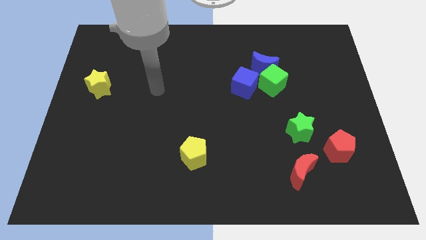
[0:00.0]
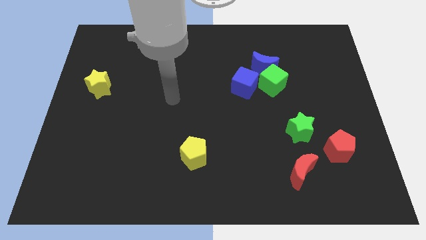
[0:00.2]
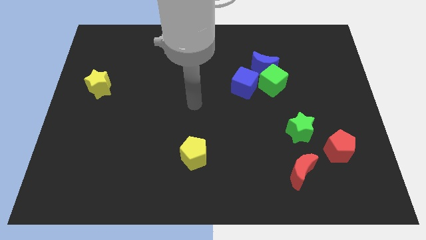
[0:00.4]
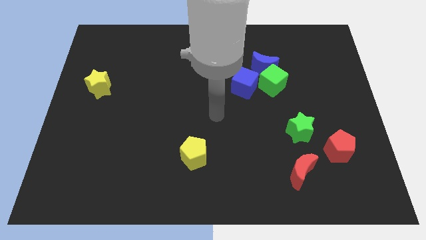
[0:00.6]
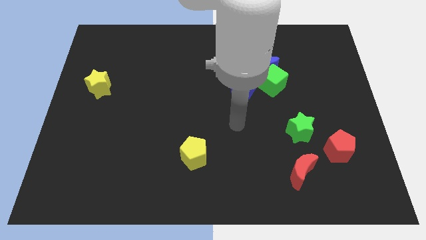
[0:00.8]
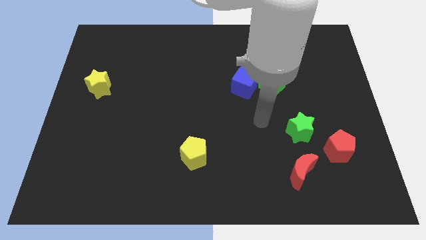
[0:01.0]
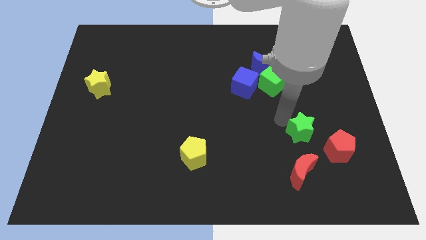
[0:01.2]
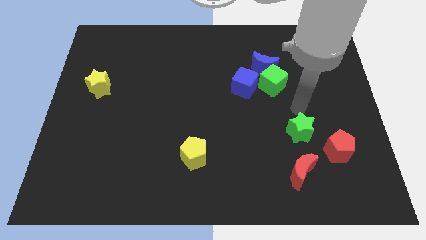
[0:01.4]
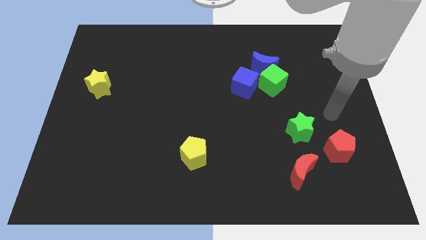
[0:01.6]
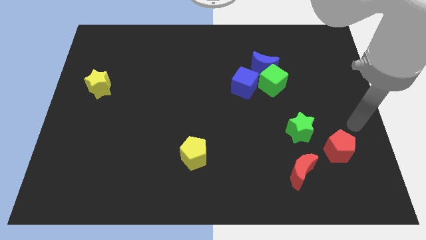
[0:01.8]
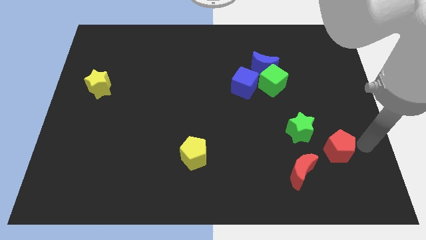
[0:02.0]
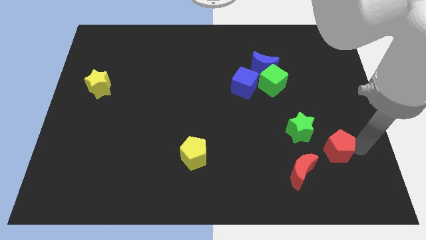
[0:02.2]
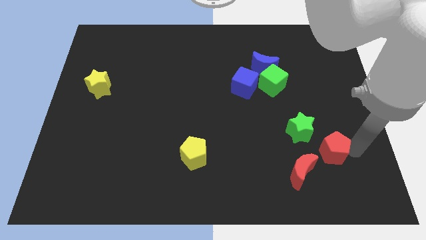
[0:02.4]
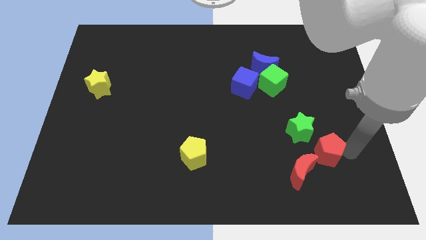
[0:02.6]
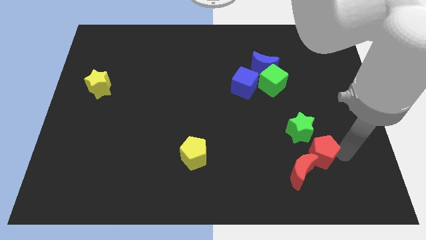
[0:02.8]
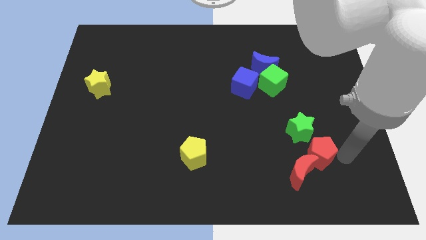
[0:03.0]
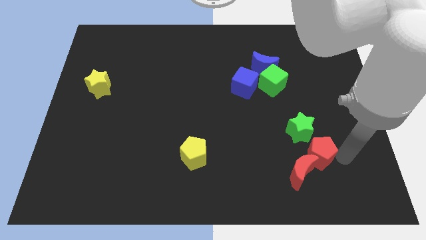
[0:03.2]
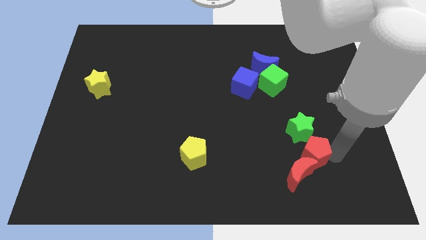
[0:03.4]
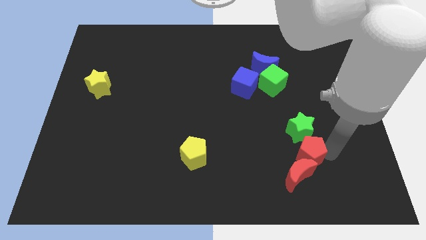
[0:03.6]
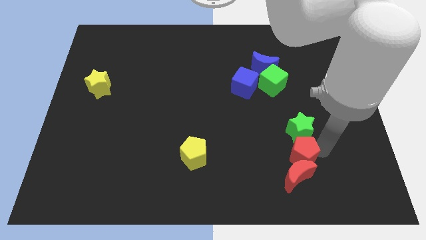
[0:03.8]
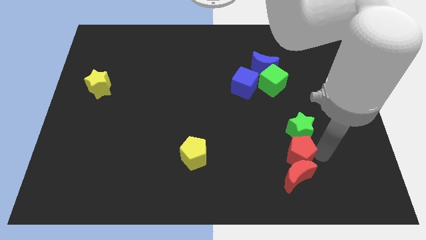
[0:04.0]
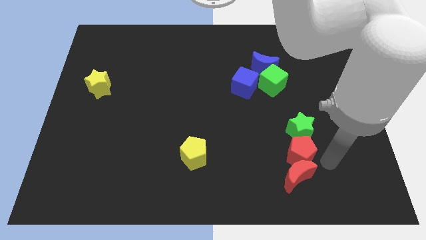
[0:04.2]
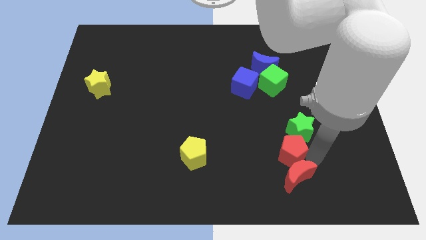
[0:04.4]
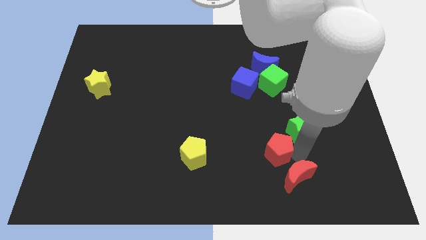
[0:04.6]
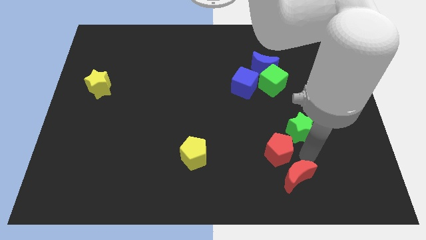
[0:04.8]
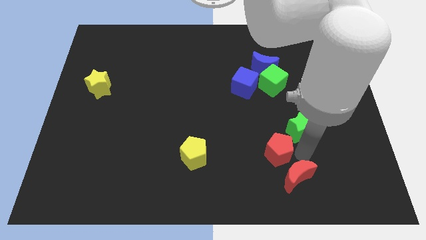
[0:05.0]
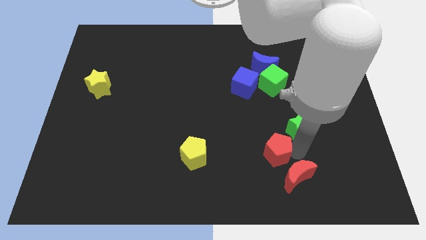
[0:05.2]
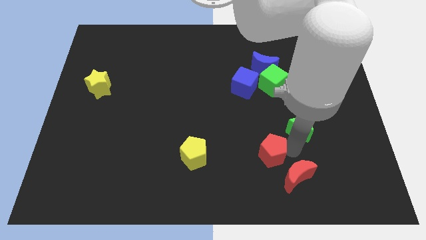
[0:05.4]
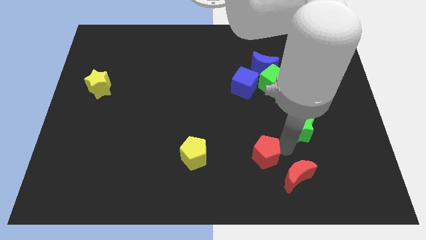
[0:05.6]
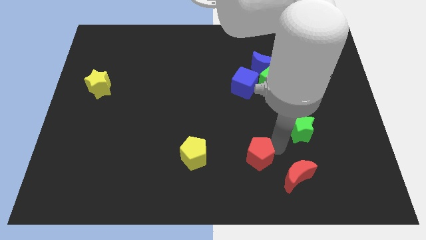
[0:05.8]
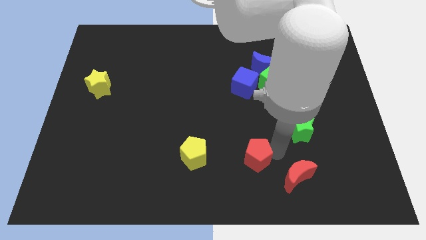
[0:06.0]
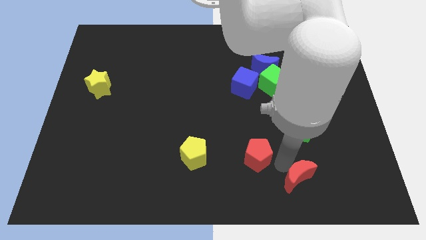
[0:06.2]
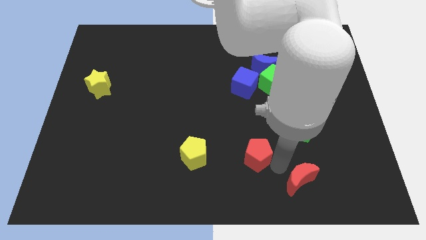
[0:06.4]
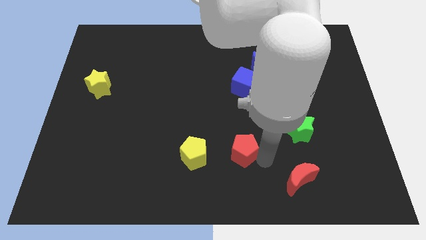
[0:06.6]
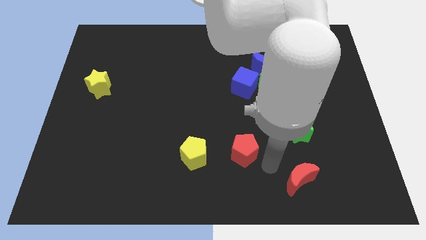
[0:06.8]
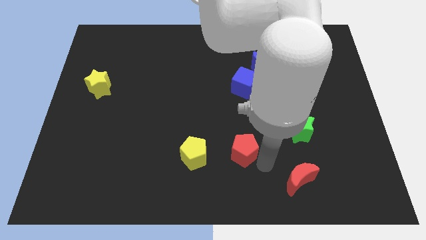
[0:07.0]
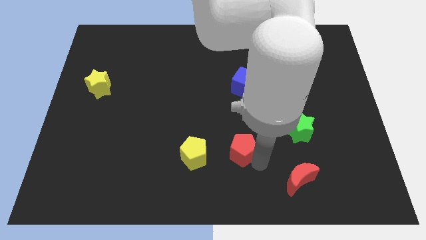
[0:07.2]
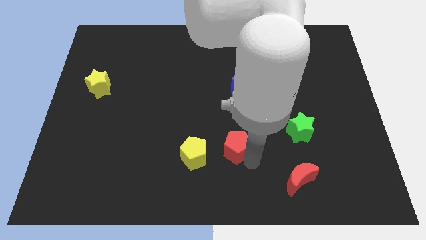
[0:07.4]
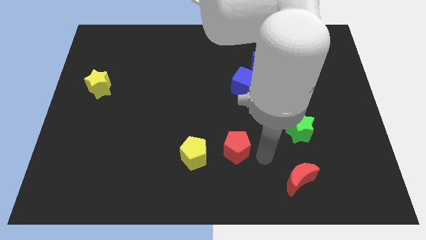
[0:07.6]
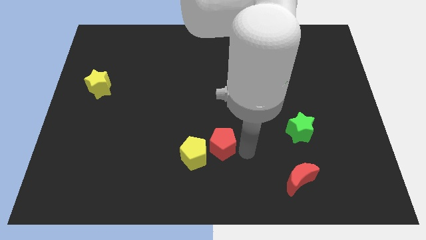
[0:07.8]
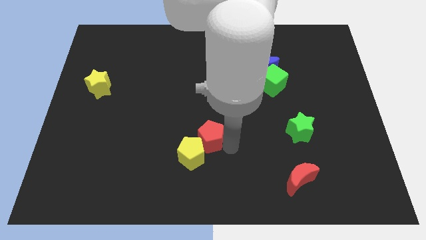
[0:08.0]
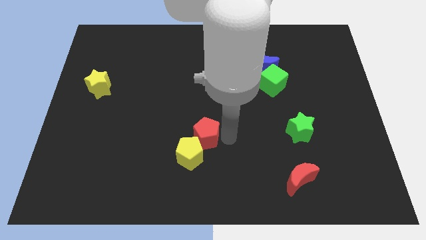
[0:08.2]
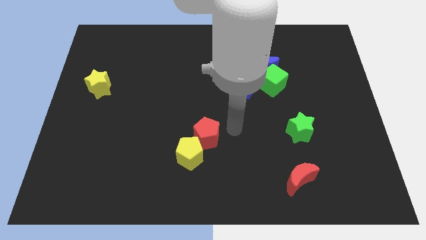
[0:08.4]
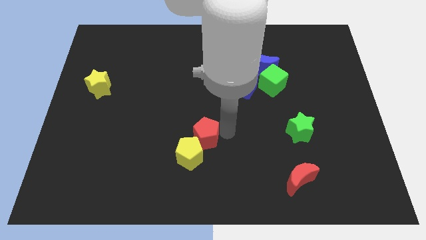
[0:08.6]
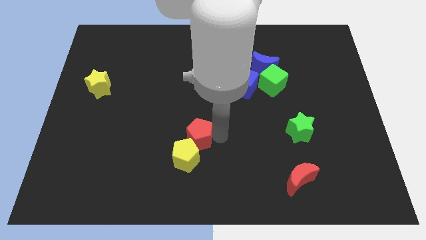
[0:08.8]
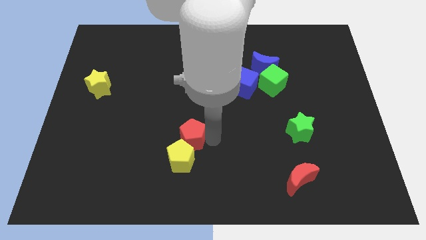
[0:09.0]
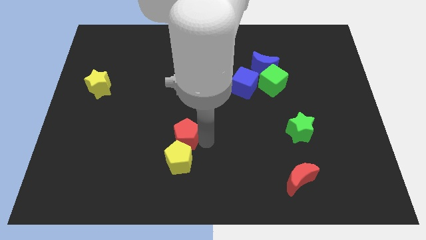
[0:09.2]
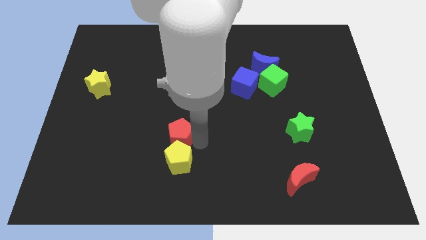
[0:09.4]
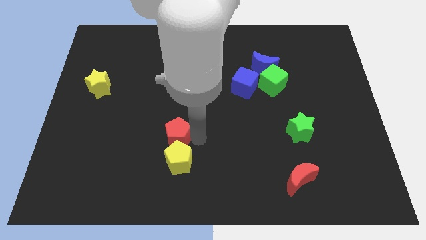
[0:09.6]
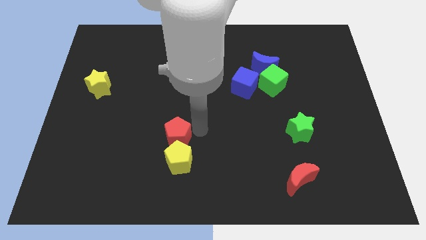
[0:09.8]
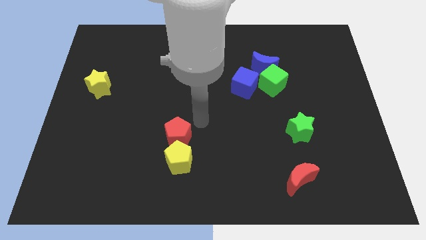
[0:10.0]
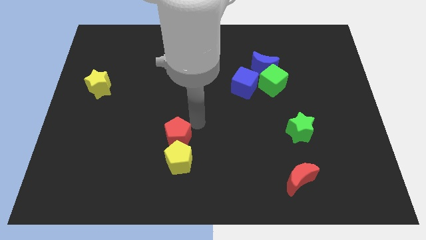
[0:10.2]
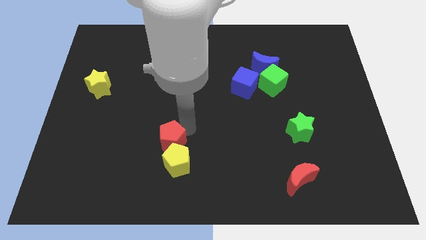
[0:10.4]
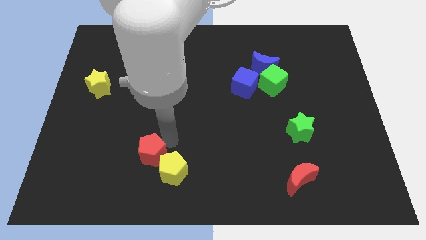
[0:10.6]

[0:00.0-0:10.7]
put the red pentagon to the left side of the yellow pentagon

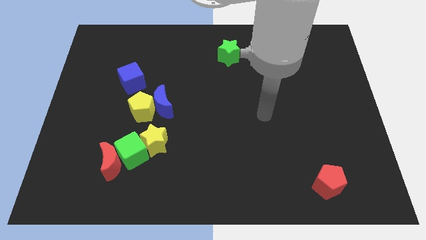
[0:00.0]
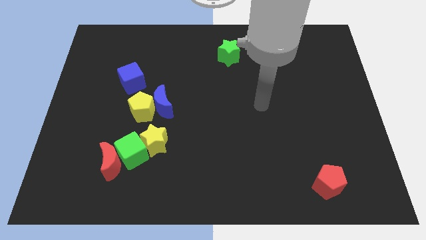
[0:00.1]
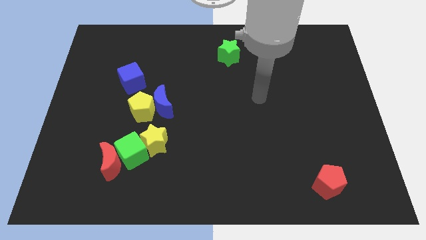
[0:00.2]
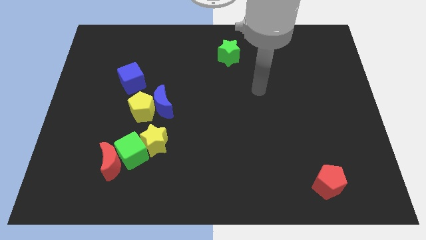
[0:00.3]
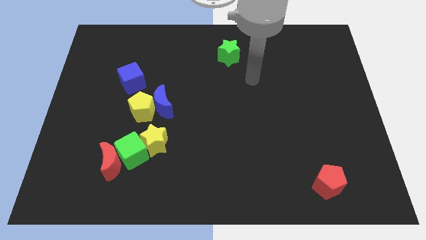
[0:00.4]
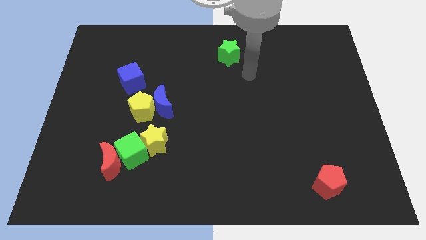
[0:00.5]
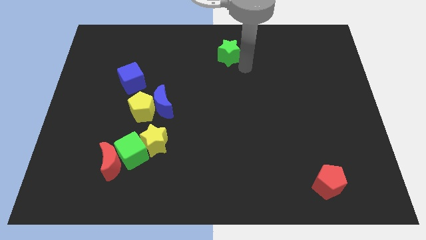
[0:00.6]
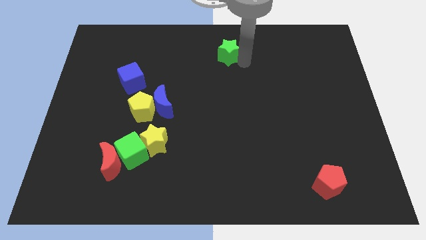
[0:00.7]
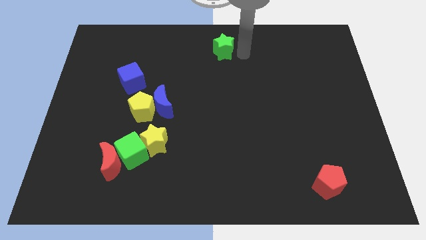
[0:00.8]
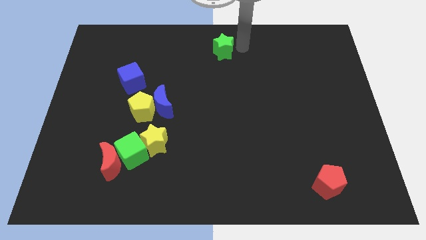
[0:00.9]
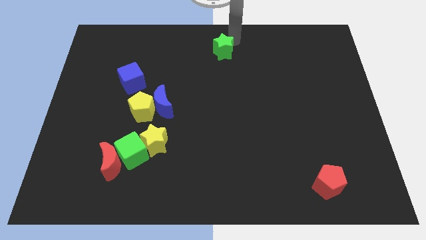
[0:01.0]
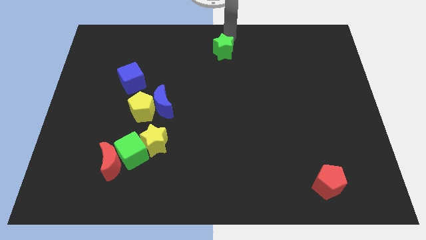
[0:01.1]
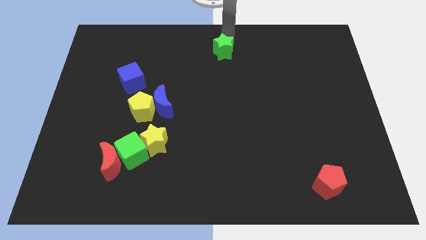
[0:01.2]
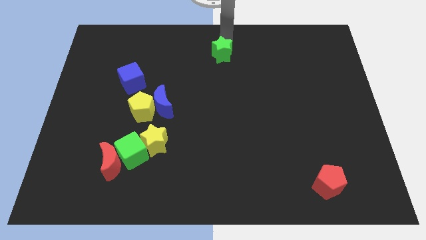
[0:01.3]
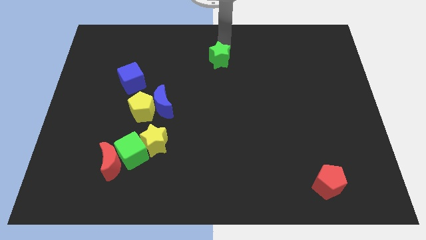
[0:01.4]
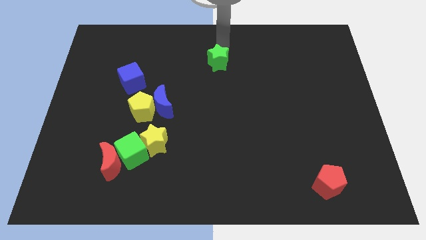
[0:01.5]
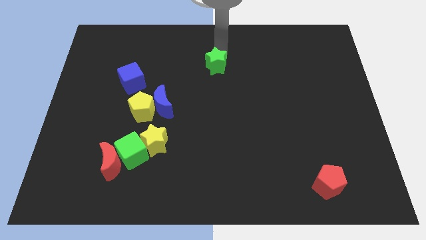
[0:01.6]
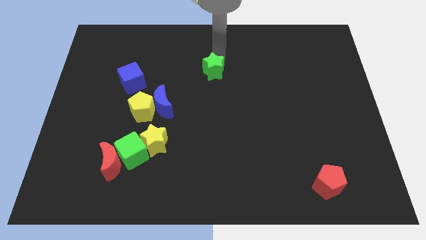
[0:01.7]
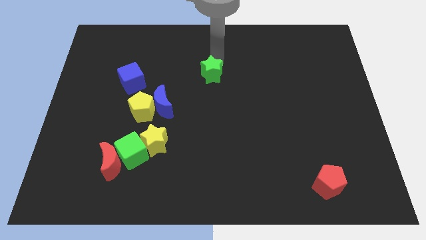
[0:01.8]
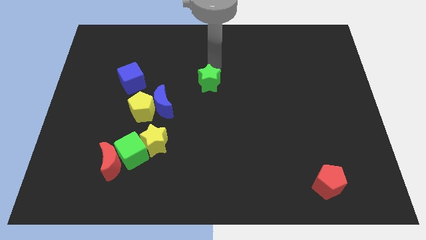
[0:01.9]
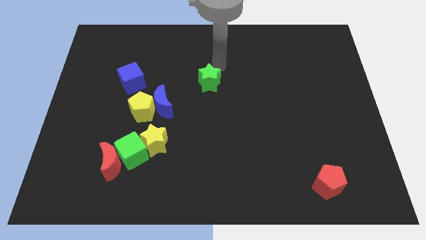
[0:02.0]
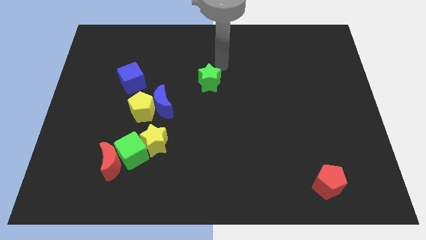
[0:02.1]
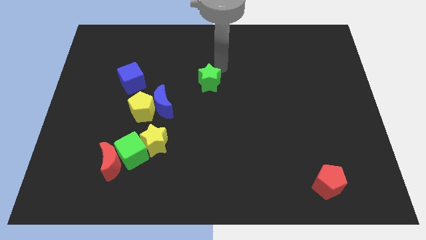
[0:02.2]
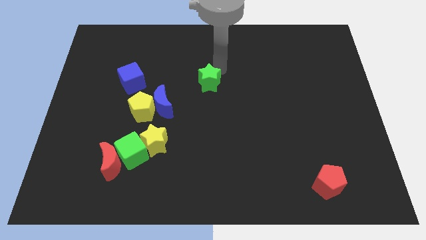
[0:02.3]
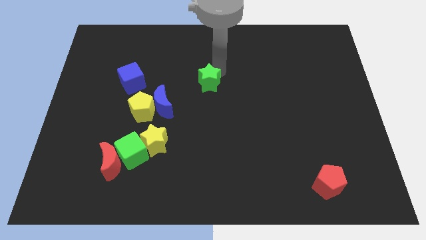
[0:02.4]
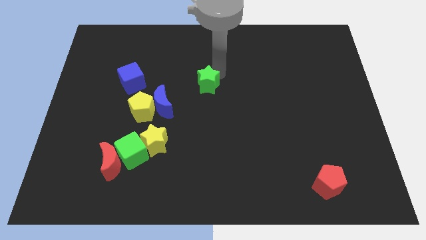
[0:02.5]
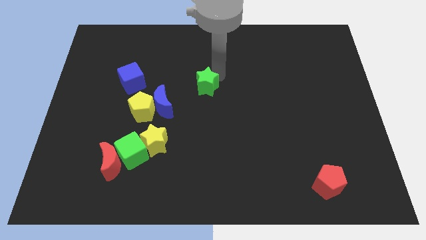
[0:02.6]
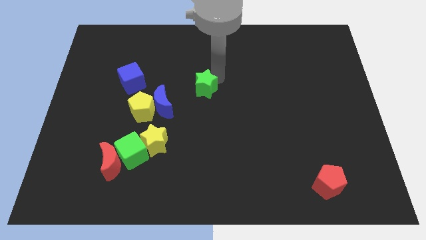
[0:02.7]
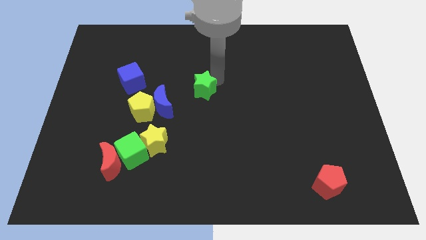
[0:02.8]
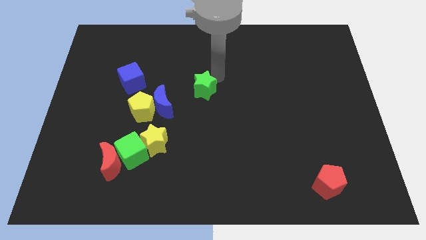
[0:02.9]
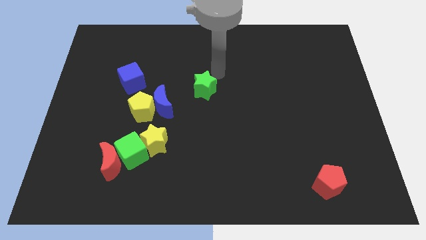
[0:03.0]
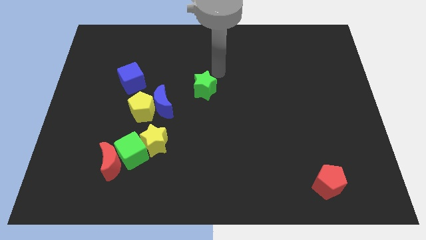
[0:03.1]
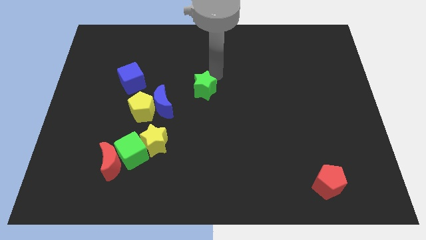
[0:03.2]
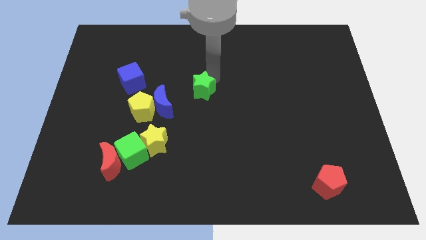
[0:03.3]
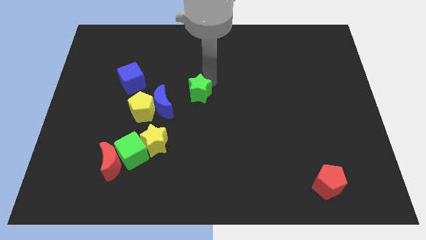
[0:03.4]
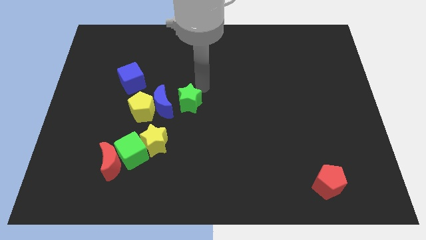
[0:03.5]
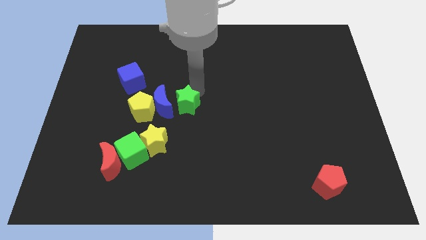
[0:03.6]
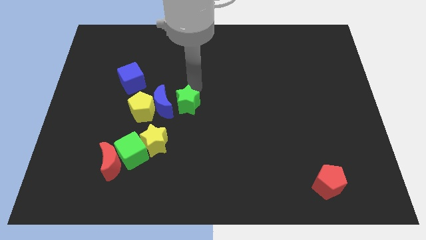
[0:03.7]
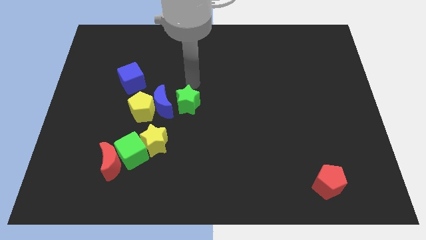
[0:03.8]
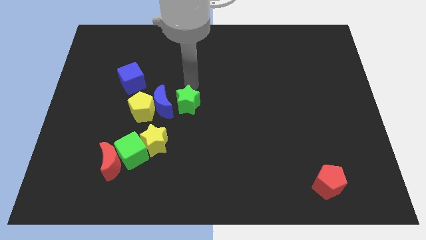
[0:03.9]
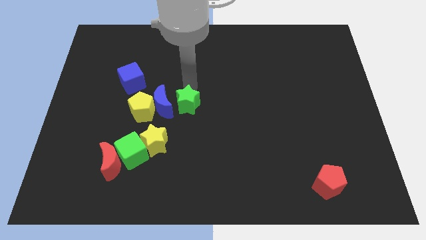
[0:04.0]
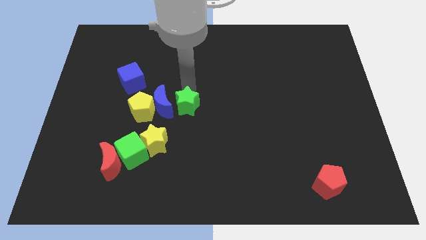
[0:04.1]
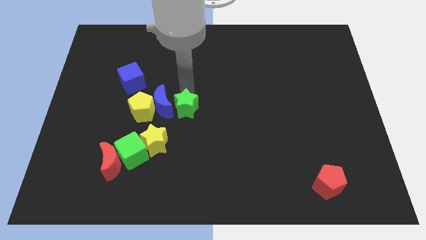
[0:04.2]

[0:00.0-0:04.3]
move the green star to the top right side of the yellow star
